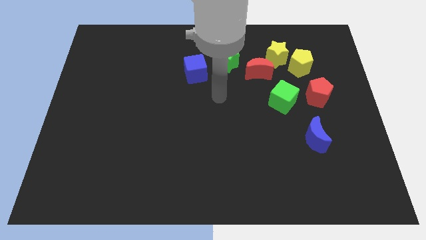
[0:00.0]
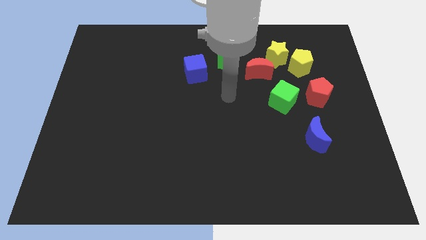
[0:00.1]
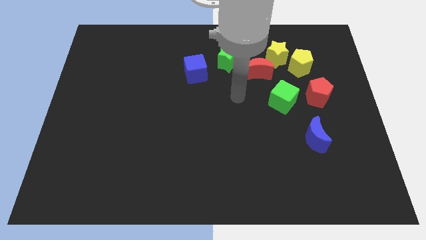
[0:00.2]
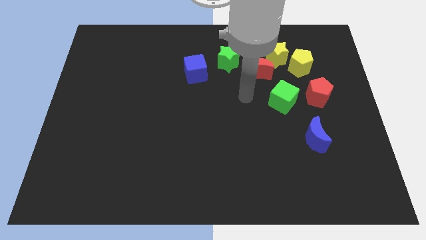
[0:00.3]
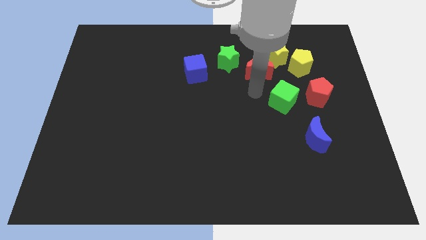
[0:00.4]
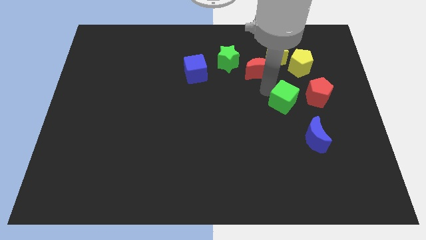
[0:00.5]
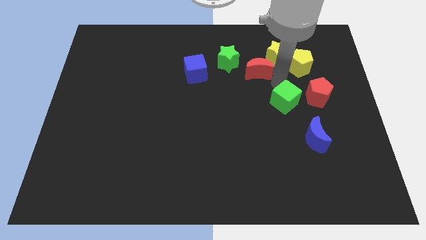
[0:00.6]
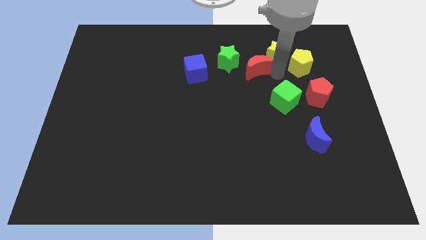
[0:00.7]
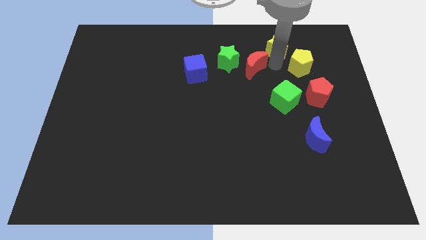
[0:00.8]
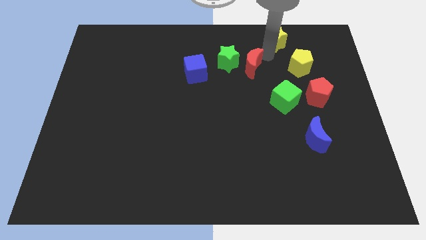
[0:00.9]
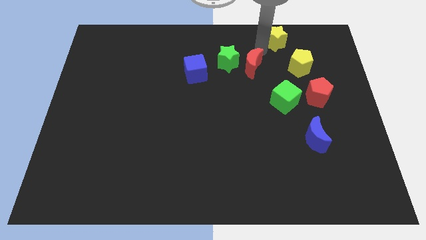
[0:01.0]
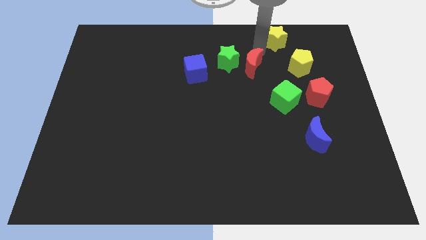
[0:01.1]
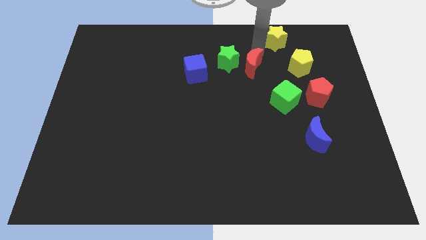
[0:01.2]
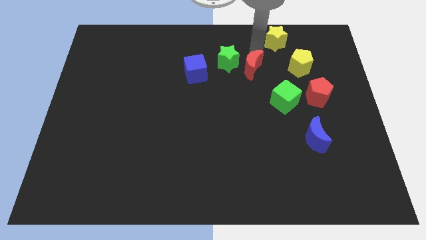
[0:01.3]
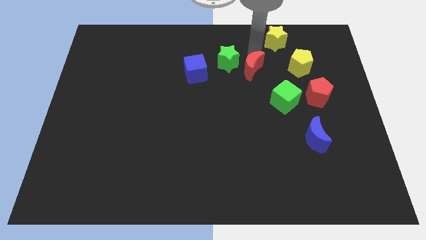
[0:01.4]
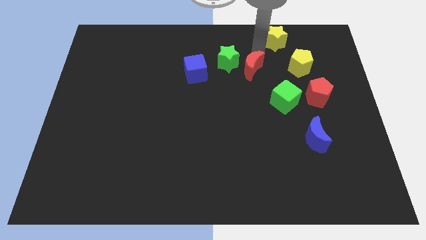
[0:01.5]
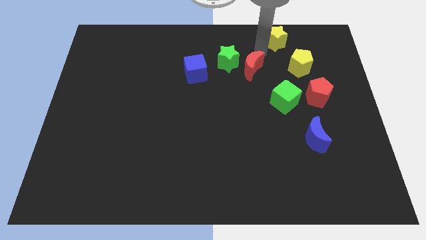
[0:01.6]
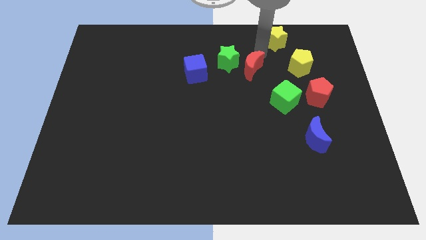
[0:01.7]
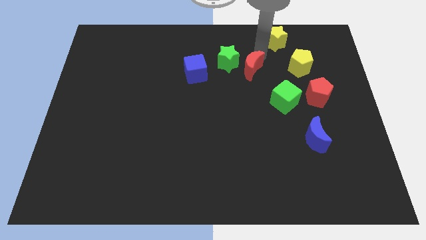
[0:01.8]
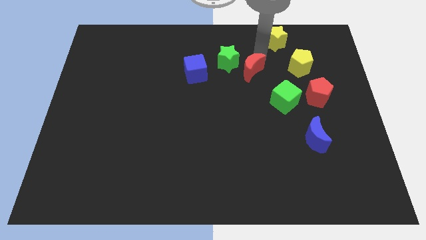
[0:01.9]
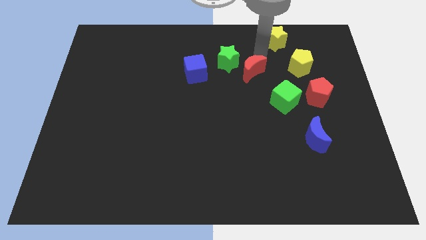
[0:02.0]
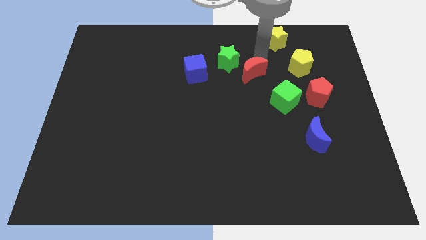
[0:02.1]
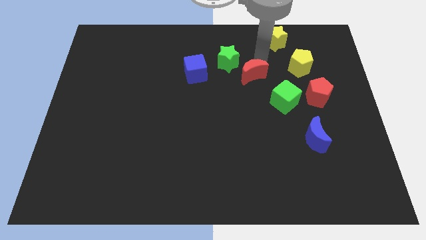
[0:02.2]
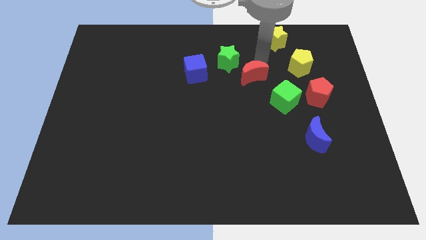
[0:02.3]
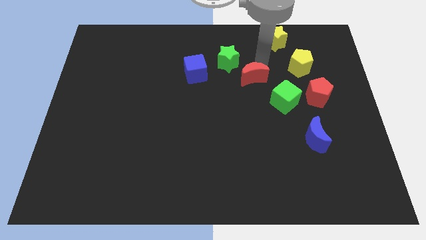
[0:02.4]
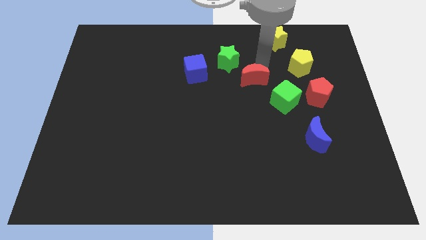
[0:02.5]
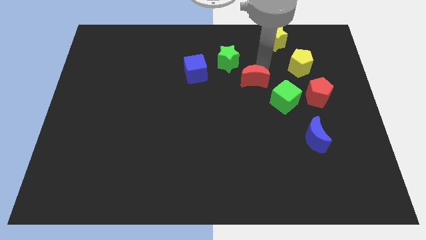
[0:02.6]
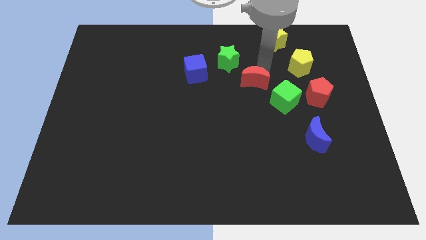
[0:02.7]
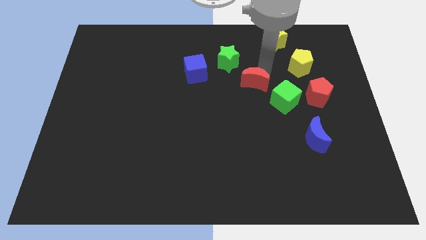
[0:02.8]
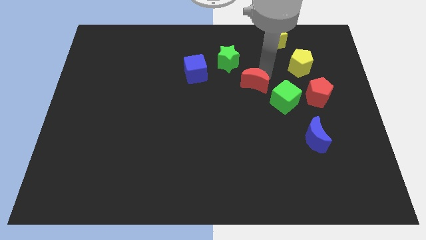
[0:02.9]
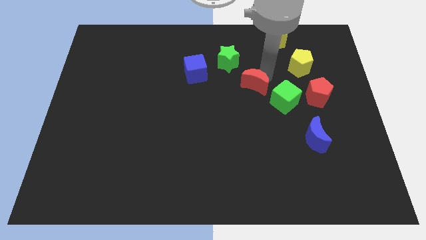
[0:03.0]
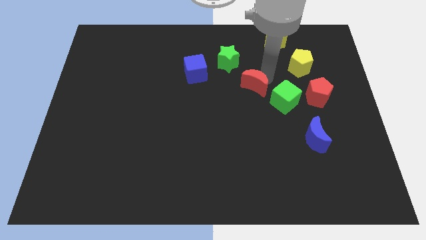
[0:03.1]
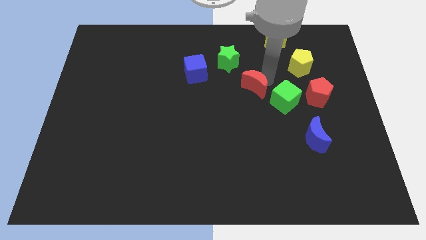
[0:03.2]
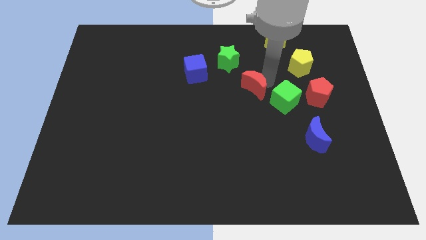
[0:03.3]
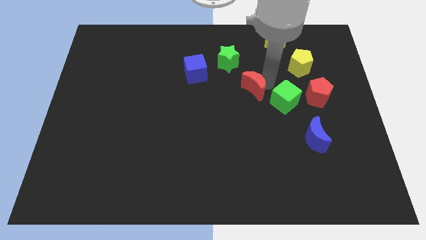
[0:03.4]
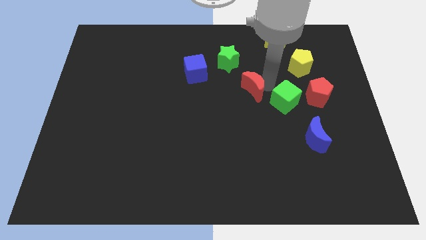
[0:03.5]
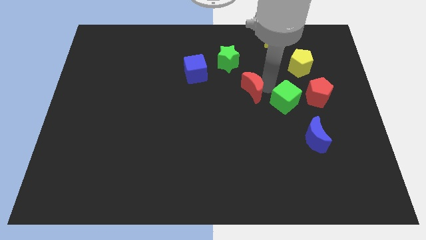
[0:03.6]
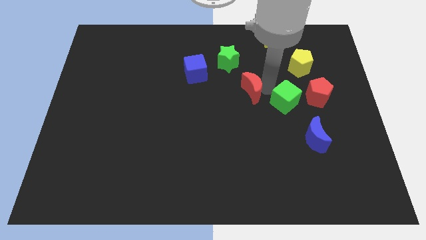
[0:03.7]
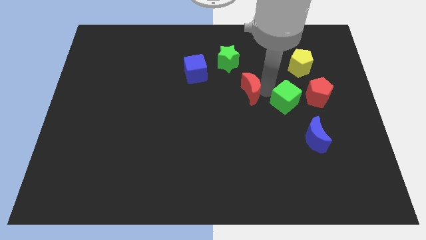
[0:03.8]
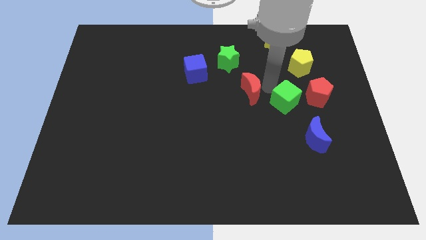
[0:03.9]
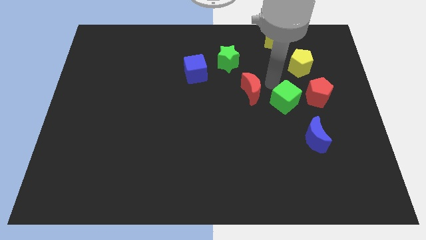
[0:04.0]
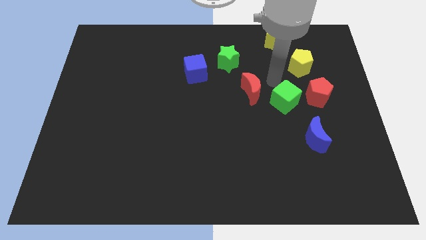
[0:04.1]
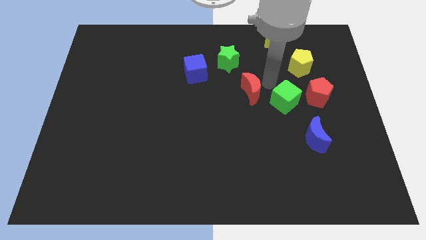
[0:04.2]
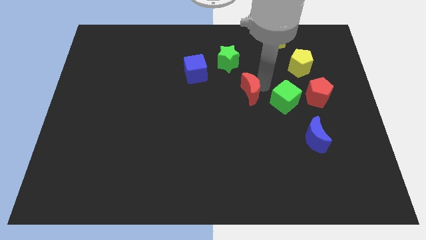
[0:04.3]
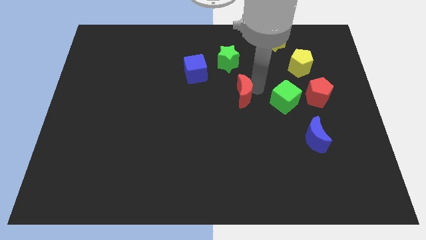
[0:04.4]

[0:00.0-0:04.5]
slide the red moon downwards and left somewhat

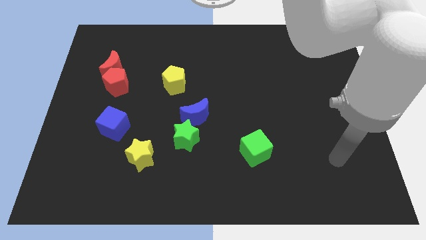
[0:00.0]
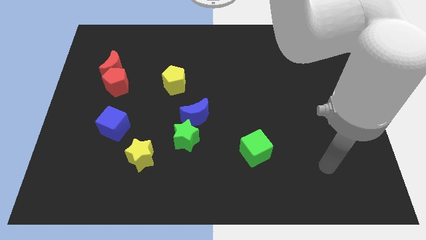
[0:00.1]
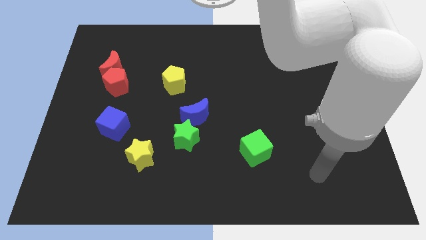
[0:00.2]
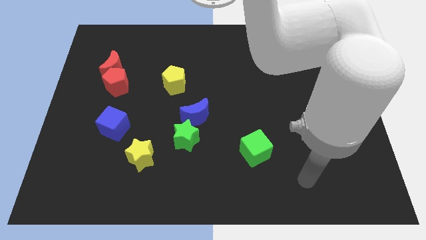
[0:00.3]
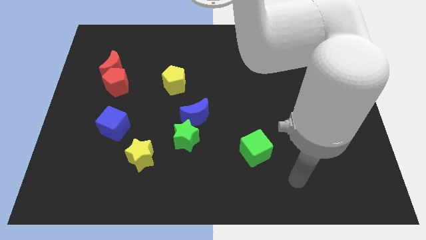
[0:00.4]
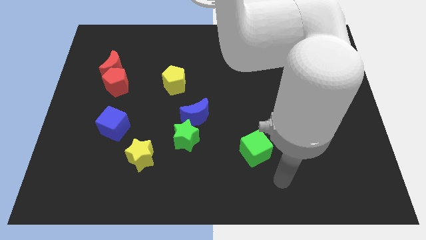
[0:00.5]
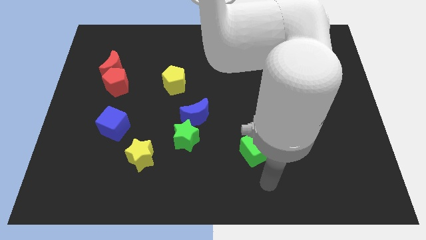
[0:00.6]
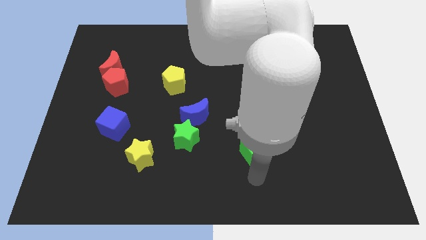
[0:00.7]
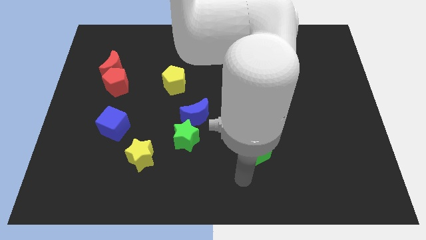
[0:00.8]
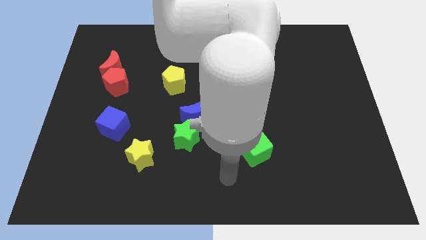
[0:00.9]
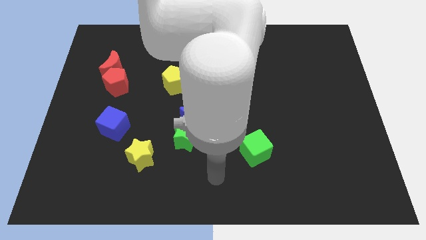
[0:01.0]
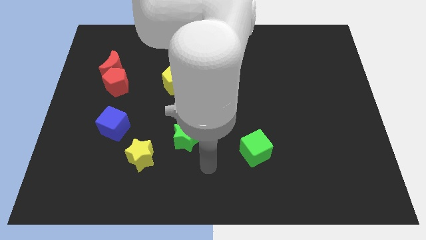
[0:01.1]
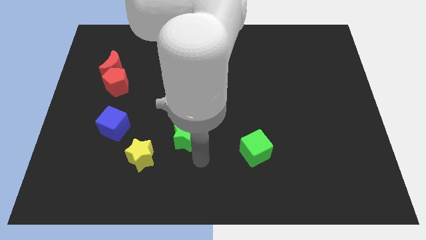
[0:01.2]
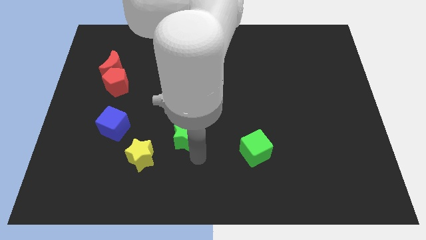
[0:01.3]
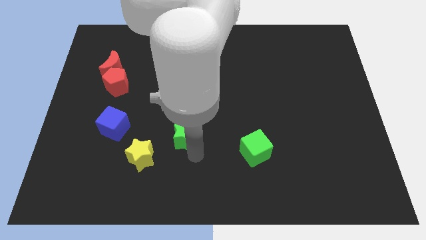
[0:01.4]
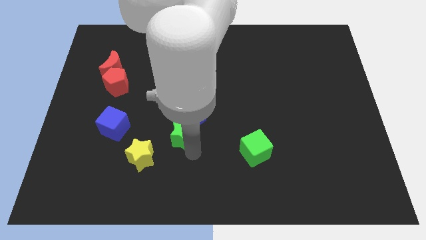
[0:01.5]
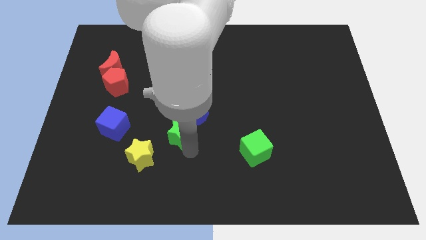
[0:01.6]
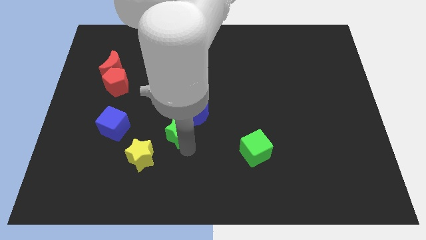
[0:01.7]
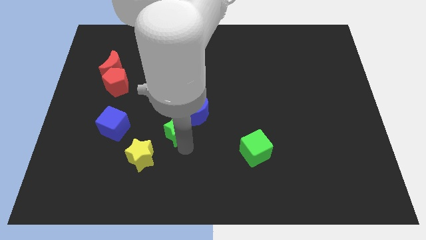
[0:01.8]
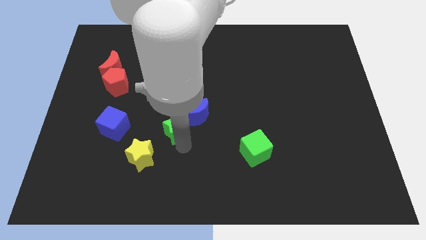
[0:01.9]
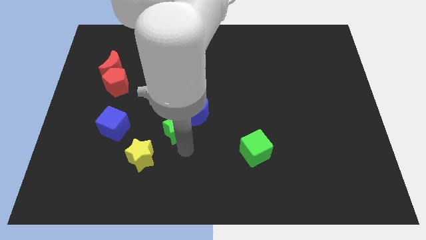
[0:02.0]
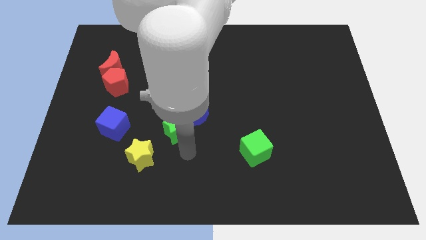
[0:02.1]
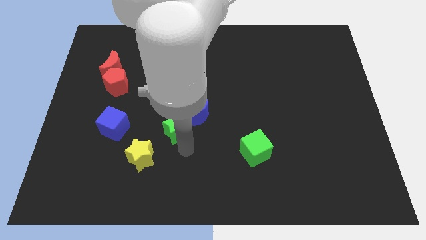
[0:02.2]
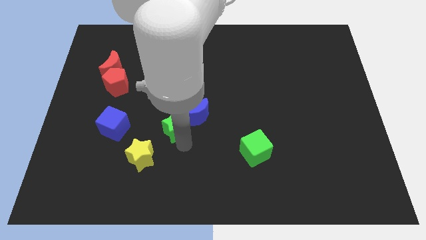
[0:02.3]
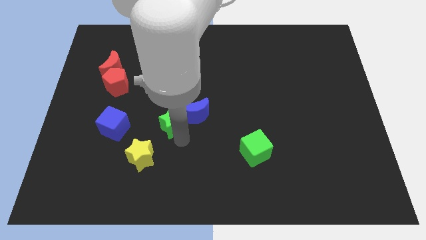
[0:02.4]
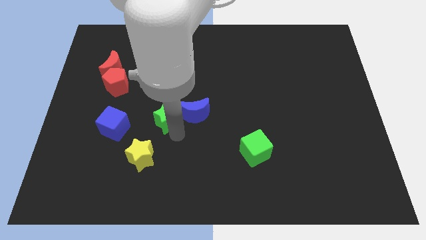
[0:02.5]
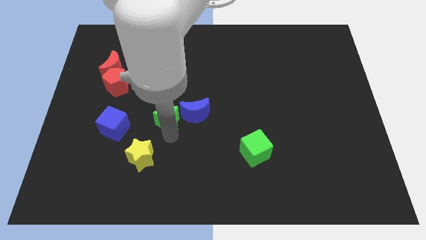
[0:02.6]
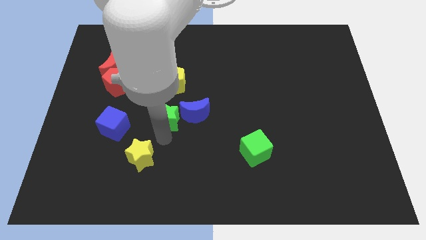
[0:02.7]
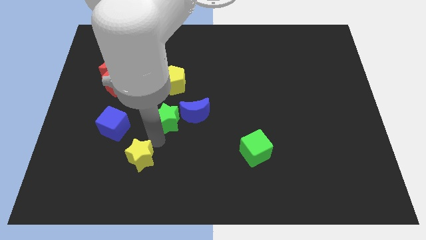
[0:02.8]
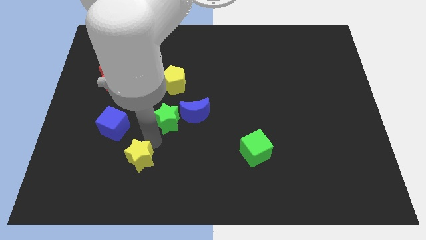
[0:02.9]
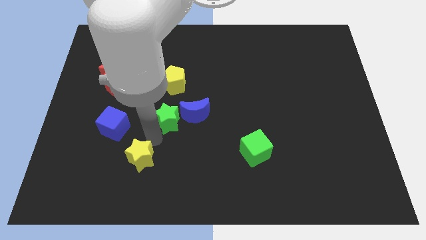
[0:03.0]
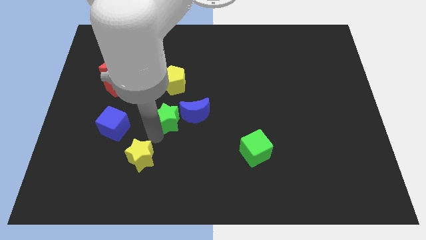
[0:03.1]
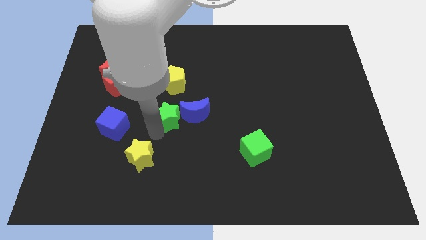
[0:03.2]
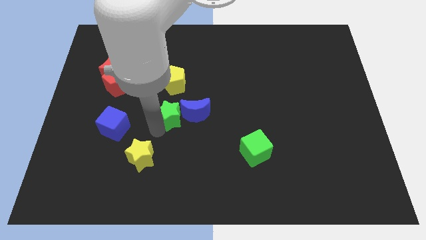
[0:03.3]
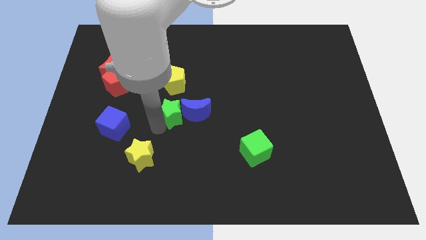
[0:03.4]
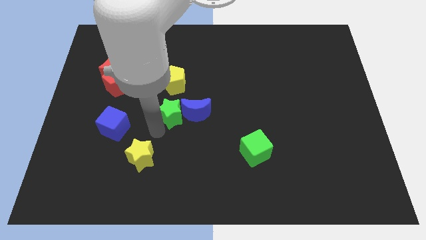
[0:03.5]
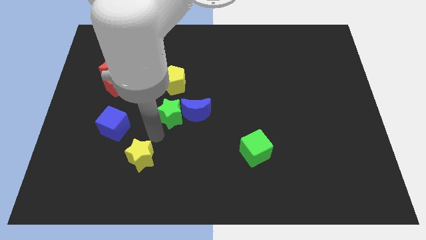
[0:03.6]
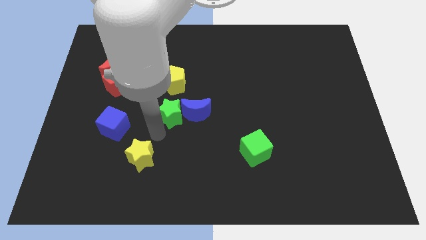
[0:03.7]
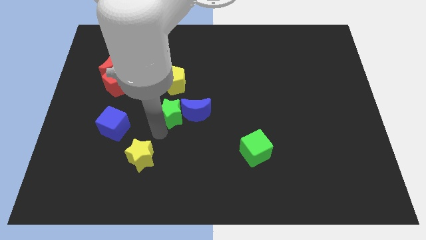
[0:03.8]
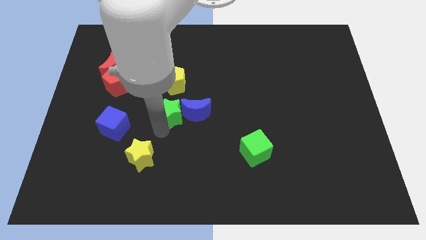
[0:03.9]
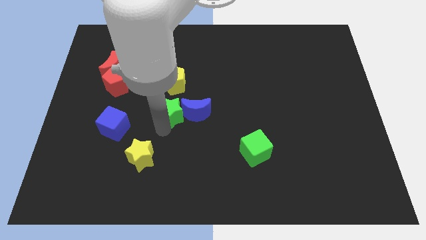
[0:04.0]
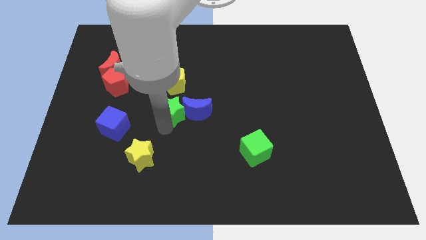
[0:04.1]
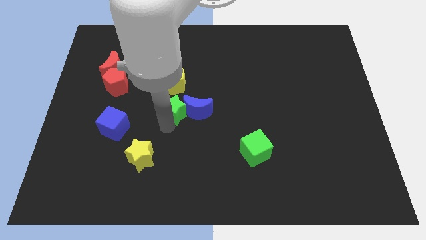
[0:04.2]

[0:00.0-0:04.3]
slightly move the green star up
